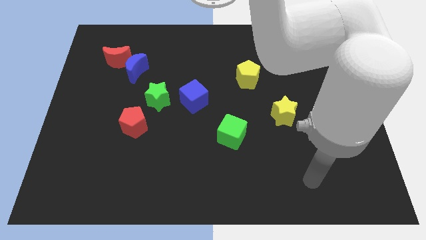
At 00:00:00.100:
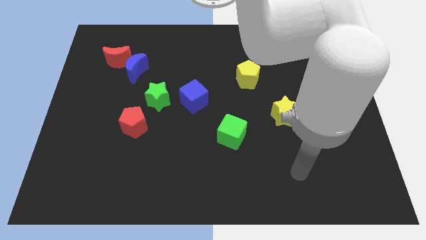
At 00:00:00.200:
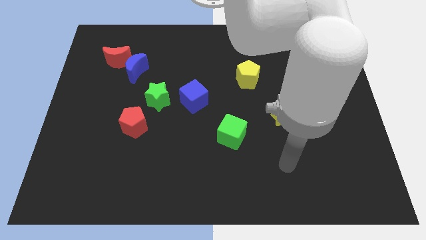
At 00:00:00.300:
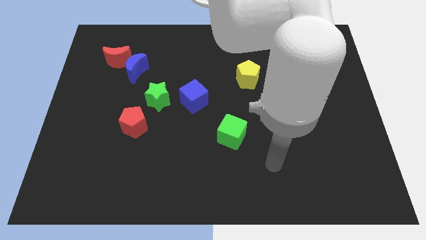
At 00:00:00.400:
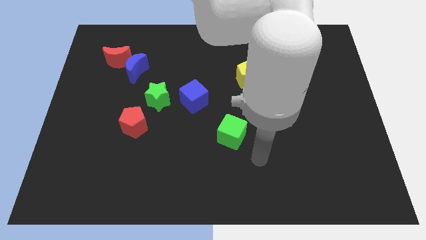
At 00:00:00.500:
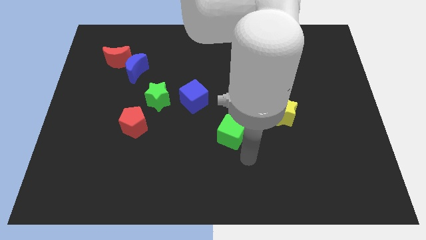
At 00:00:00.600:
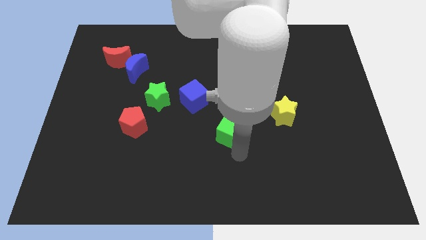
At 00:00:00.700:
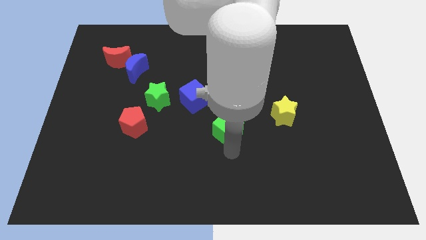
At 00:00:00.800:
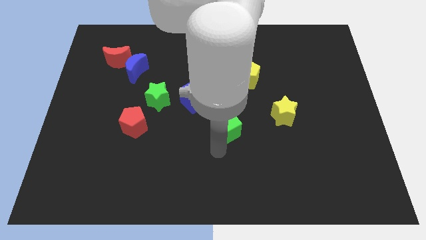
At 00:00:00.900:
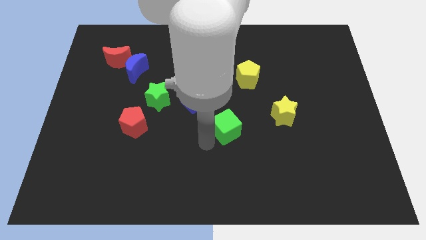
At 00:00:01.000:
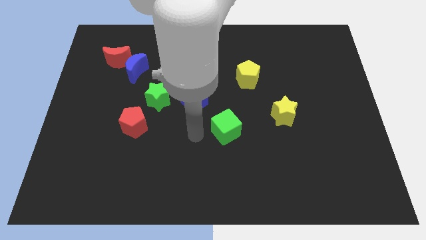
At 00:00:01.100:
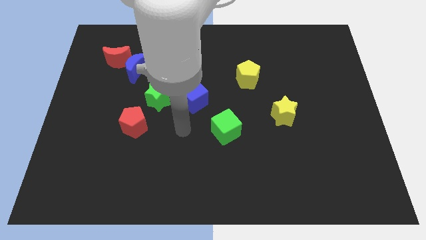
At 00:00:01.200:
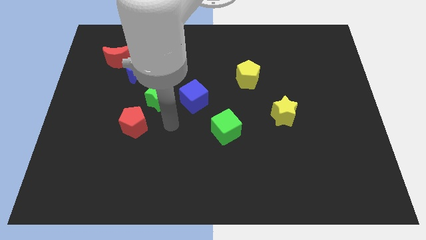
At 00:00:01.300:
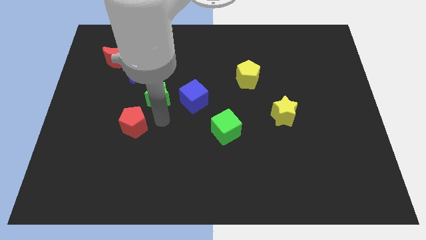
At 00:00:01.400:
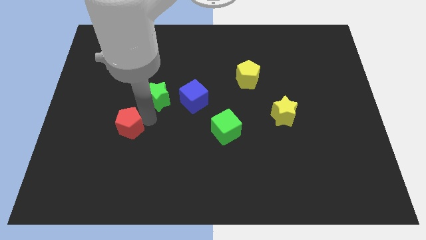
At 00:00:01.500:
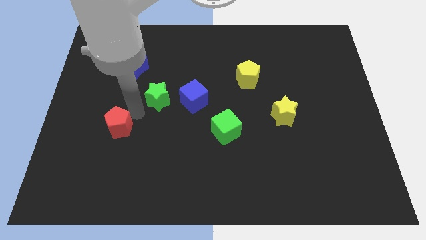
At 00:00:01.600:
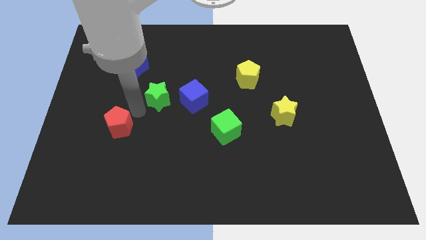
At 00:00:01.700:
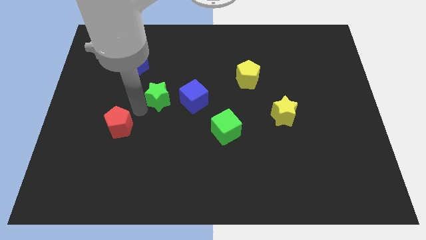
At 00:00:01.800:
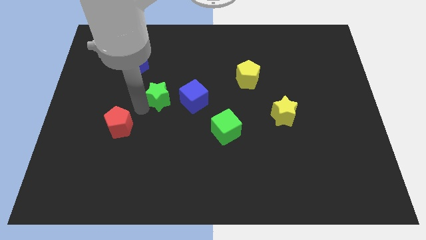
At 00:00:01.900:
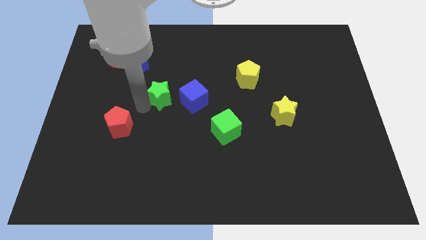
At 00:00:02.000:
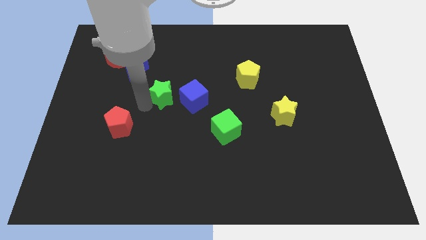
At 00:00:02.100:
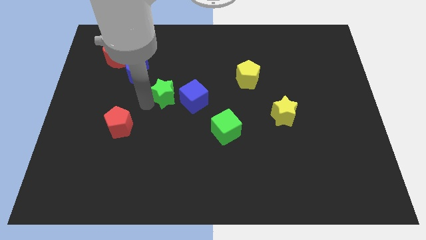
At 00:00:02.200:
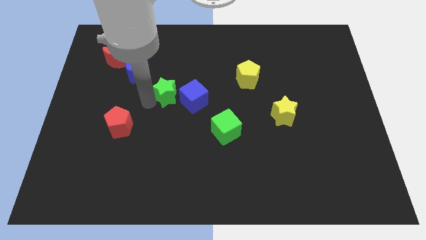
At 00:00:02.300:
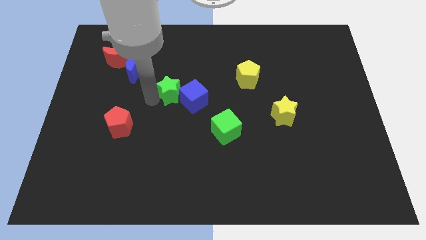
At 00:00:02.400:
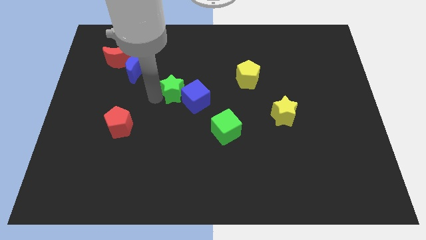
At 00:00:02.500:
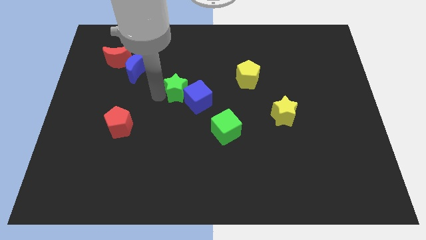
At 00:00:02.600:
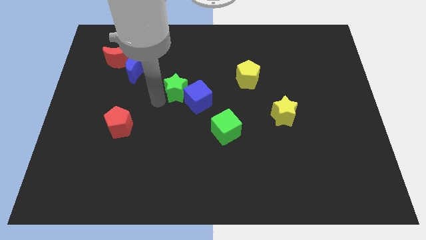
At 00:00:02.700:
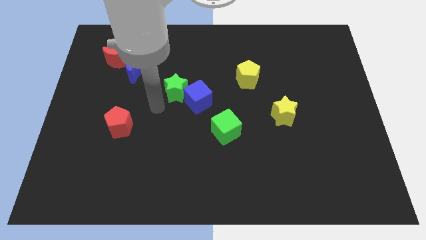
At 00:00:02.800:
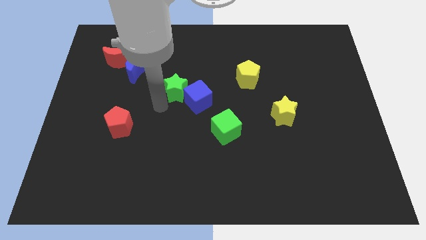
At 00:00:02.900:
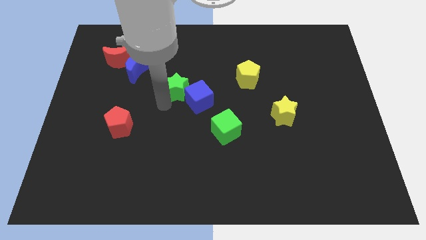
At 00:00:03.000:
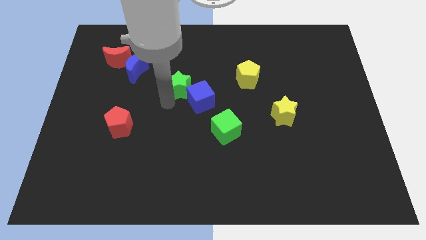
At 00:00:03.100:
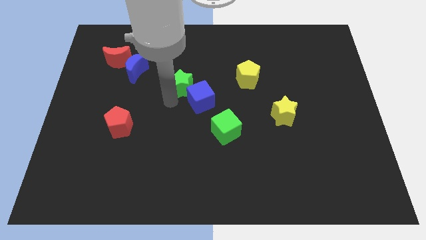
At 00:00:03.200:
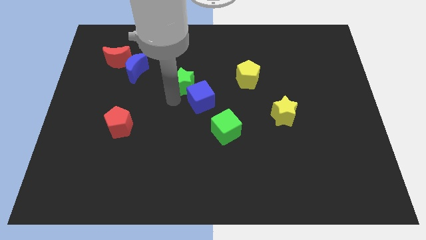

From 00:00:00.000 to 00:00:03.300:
slide the green star upwards and to the right slightly

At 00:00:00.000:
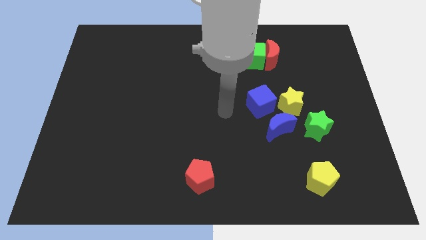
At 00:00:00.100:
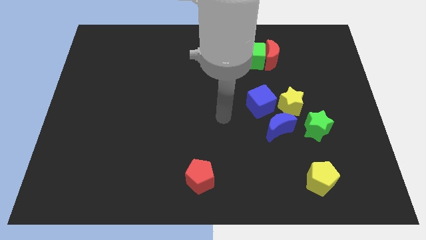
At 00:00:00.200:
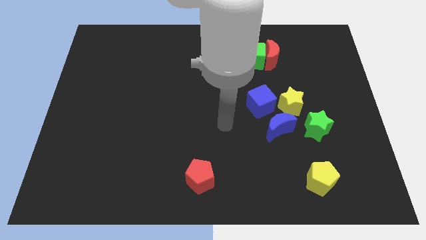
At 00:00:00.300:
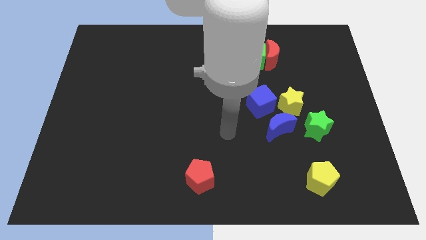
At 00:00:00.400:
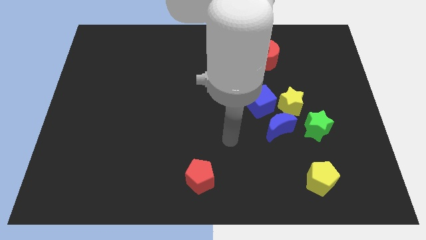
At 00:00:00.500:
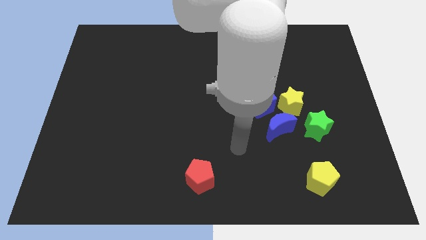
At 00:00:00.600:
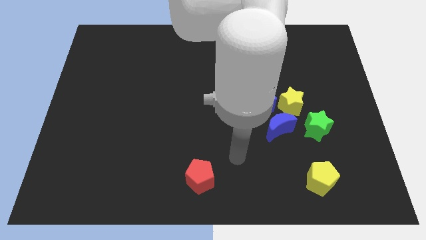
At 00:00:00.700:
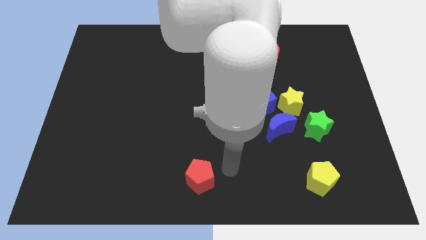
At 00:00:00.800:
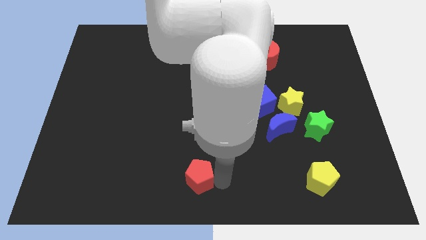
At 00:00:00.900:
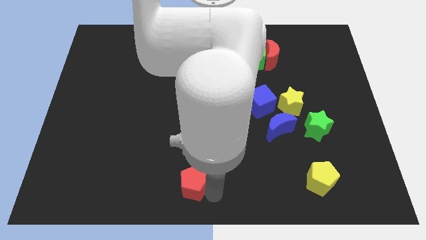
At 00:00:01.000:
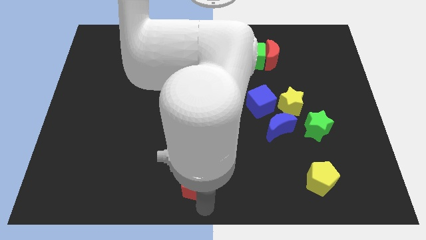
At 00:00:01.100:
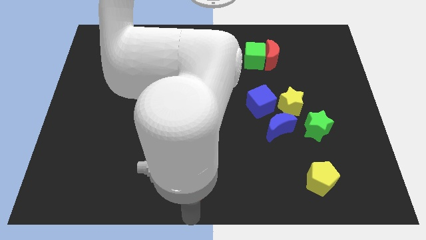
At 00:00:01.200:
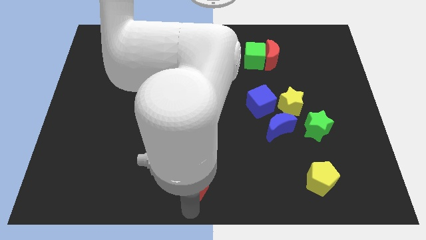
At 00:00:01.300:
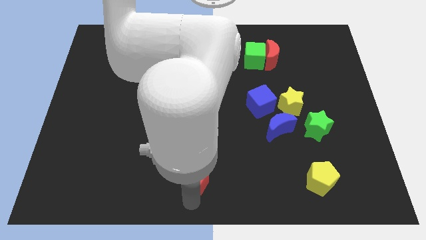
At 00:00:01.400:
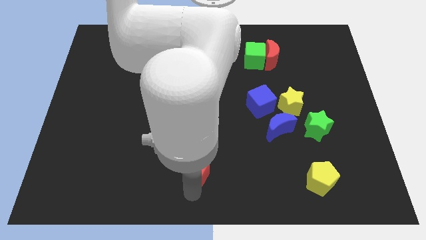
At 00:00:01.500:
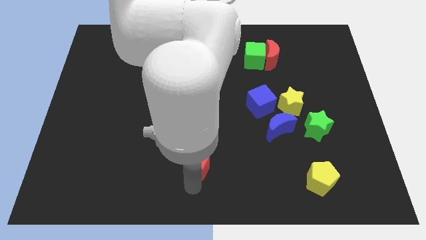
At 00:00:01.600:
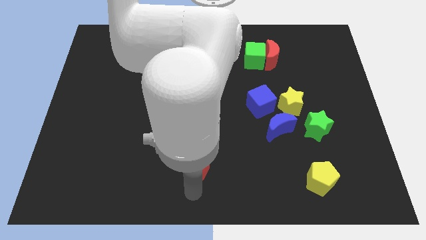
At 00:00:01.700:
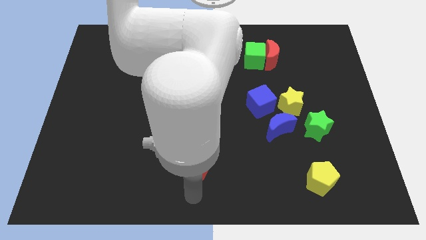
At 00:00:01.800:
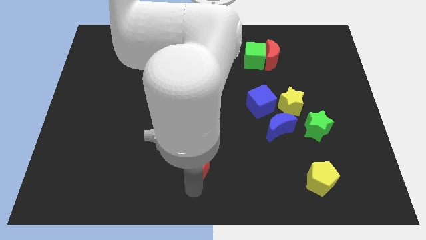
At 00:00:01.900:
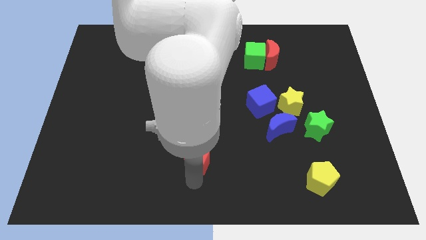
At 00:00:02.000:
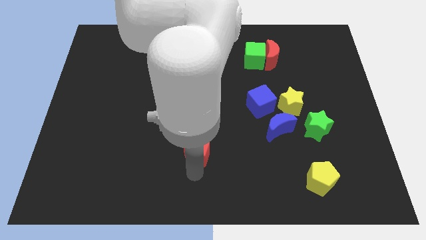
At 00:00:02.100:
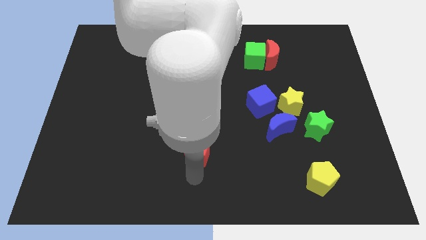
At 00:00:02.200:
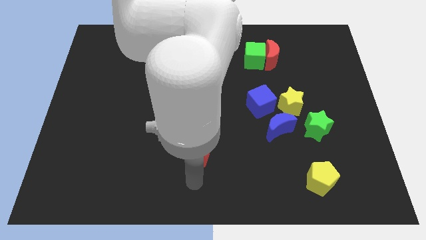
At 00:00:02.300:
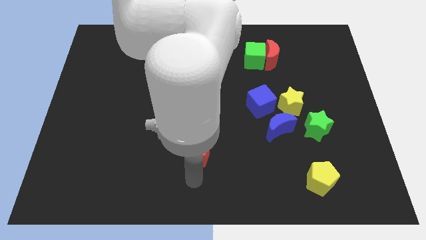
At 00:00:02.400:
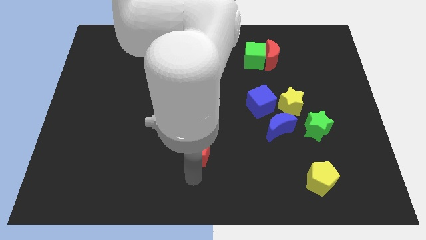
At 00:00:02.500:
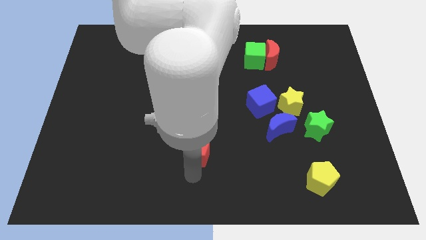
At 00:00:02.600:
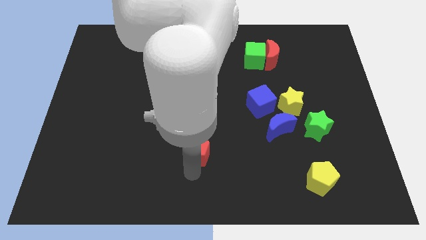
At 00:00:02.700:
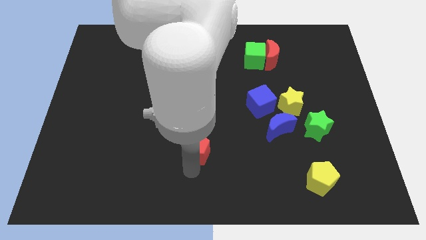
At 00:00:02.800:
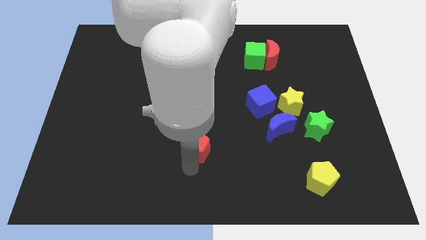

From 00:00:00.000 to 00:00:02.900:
move the red pentagon upwards a little bit

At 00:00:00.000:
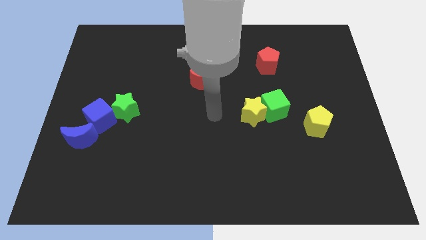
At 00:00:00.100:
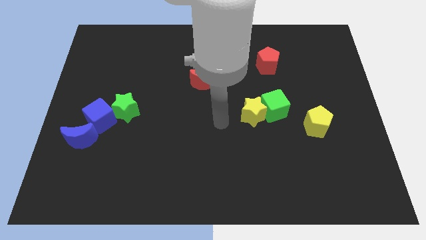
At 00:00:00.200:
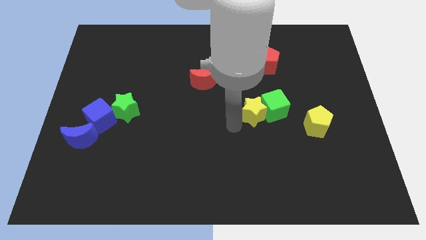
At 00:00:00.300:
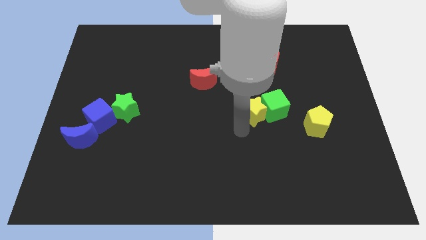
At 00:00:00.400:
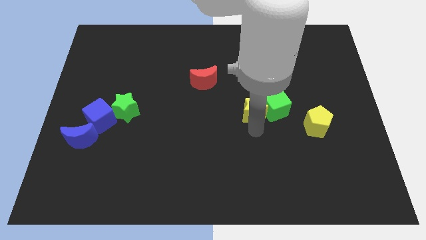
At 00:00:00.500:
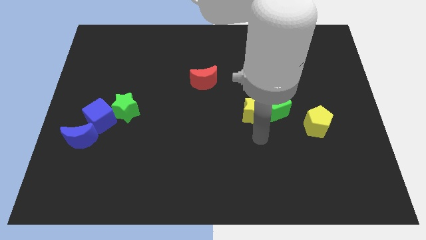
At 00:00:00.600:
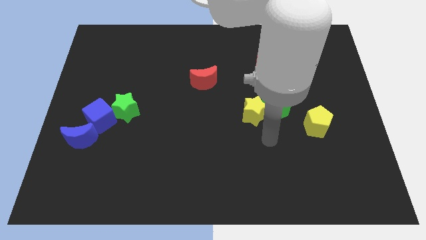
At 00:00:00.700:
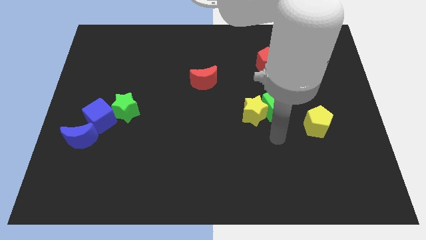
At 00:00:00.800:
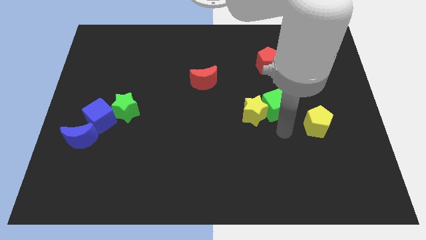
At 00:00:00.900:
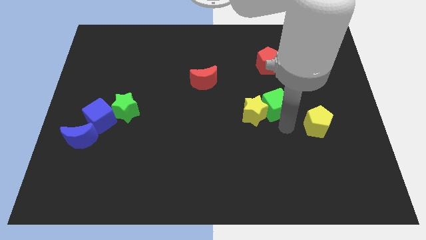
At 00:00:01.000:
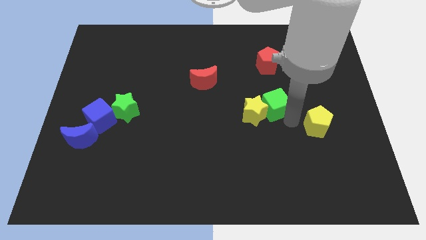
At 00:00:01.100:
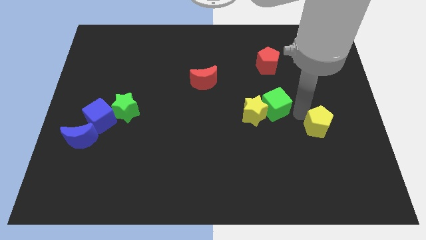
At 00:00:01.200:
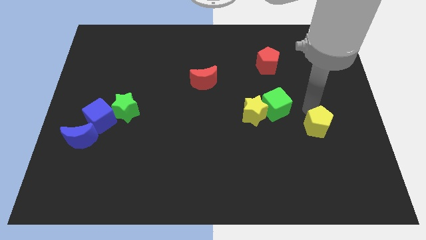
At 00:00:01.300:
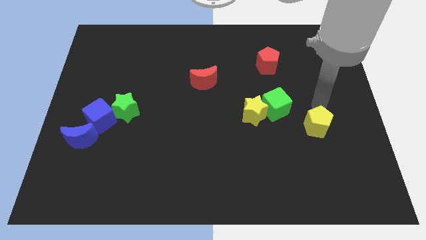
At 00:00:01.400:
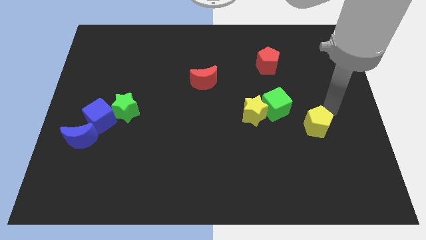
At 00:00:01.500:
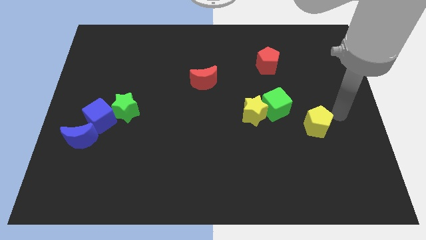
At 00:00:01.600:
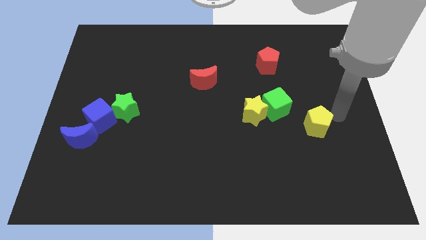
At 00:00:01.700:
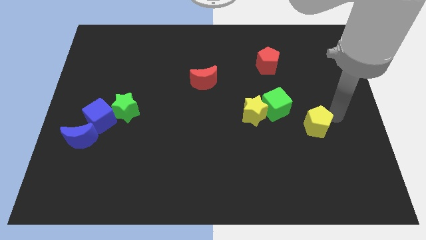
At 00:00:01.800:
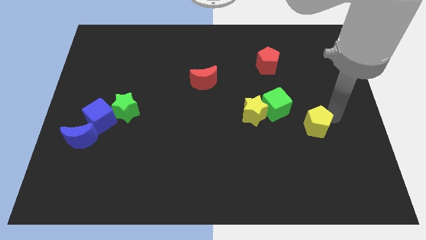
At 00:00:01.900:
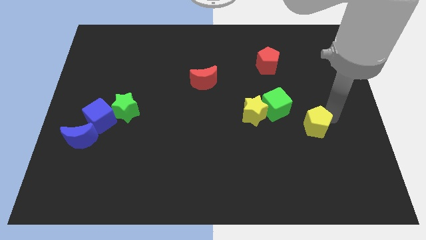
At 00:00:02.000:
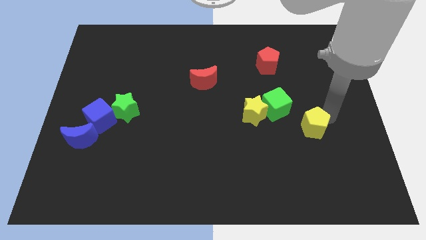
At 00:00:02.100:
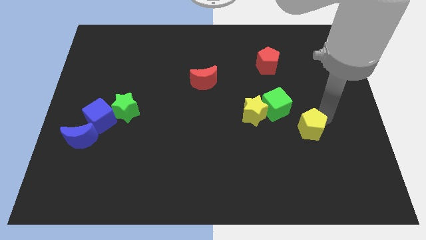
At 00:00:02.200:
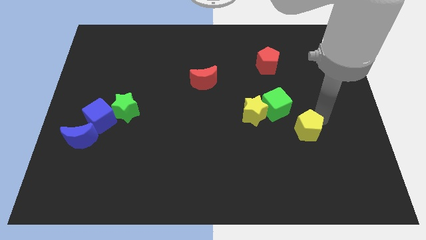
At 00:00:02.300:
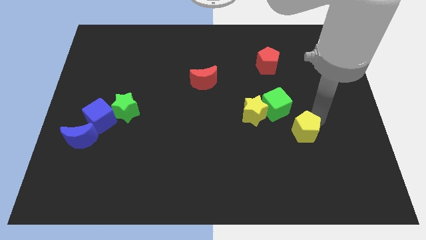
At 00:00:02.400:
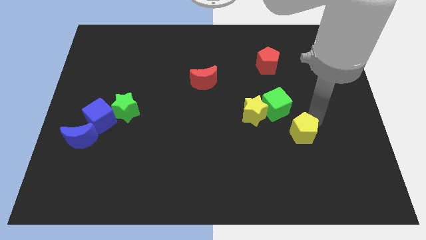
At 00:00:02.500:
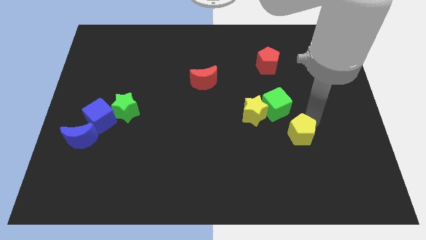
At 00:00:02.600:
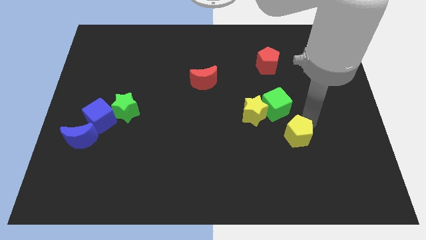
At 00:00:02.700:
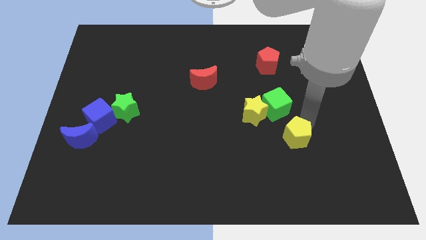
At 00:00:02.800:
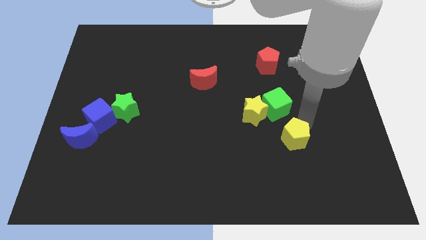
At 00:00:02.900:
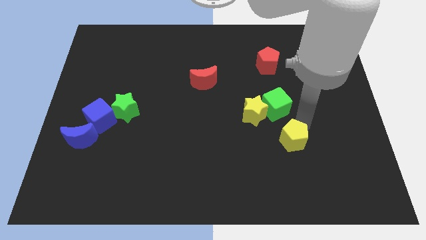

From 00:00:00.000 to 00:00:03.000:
slide the yellow pentagon slightly down and to the left diagonally
